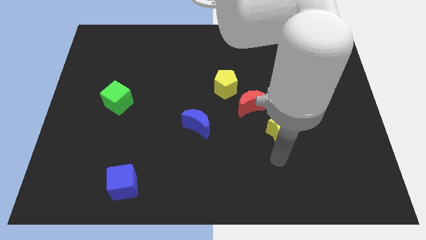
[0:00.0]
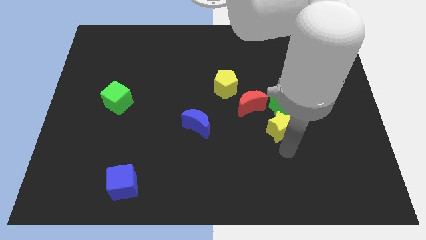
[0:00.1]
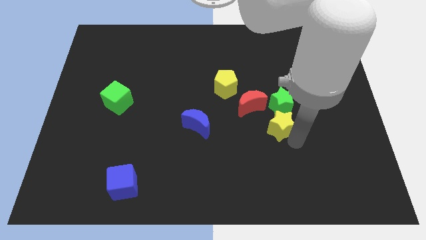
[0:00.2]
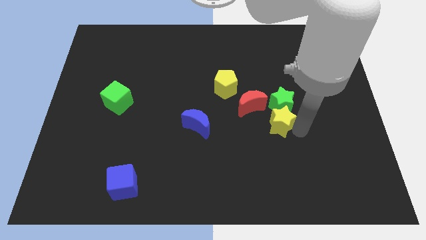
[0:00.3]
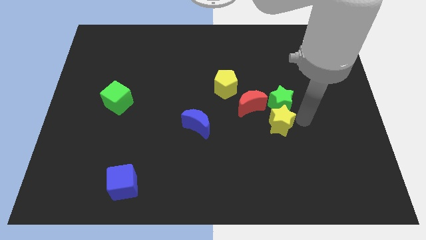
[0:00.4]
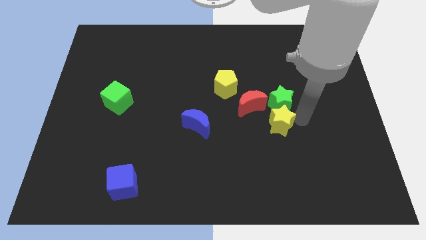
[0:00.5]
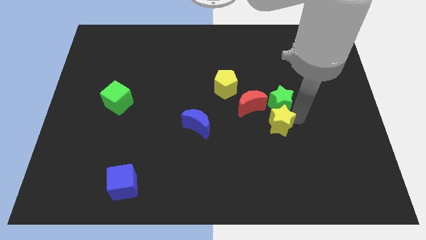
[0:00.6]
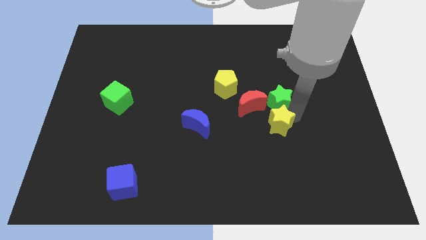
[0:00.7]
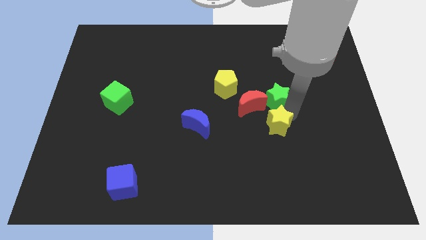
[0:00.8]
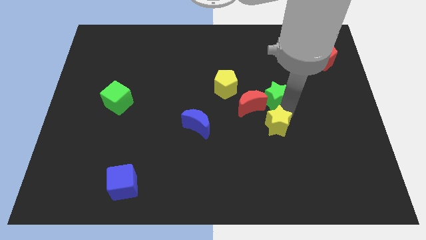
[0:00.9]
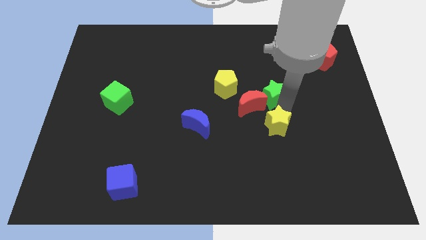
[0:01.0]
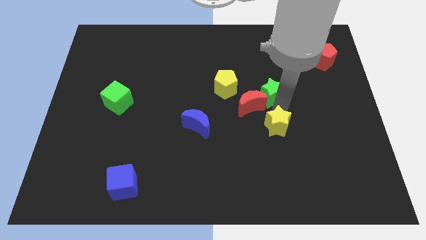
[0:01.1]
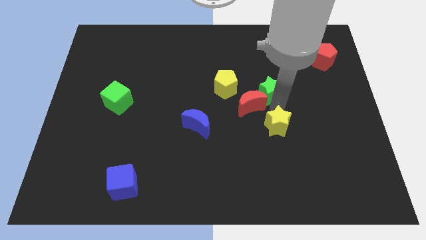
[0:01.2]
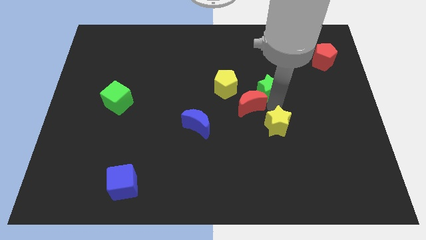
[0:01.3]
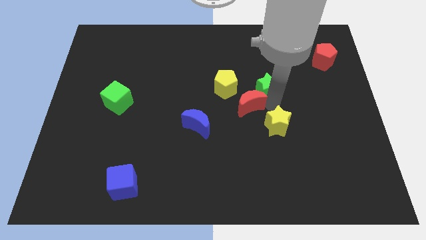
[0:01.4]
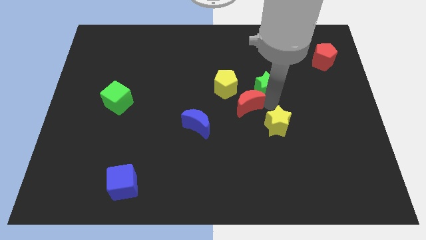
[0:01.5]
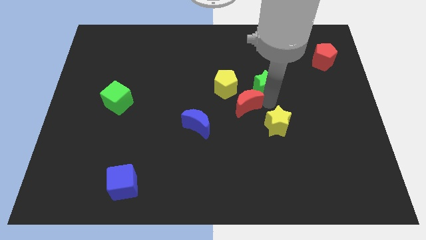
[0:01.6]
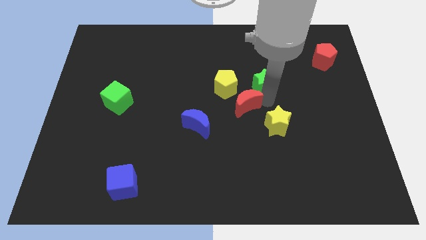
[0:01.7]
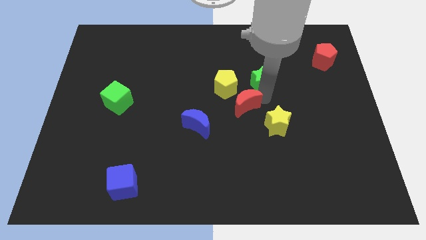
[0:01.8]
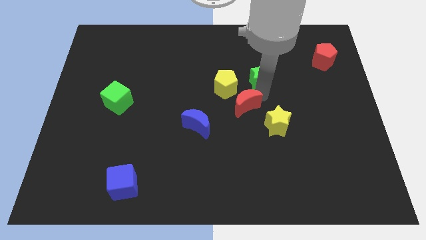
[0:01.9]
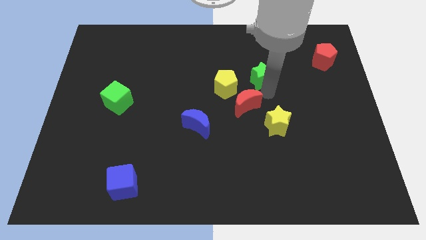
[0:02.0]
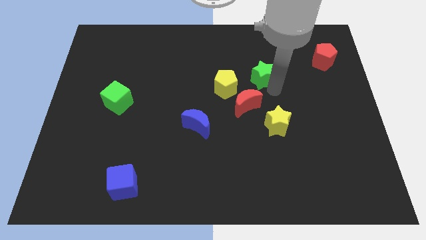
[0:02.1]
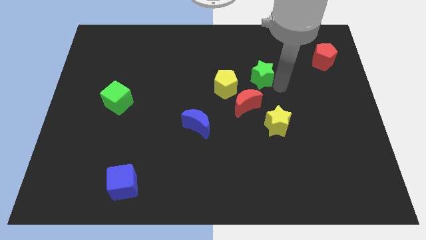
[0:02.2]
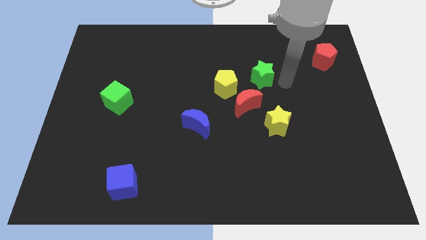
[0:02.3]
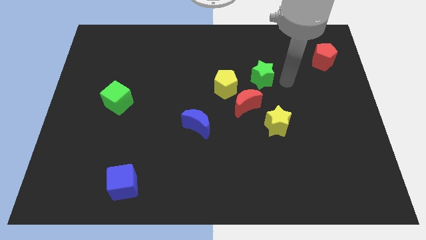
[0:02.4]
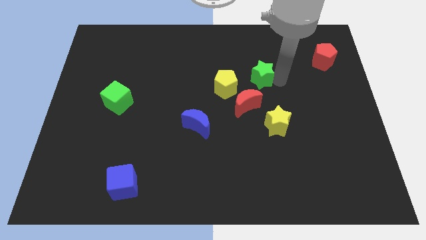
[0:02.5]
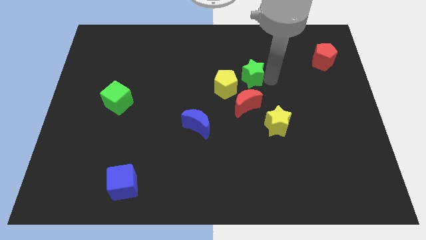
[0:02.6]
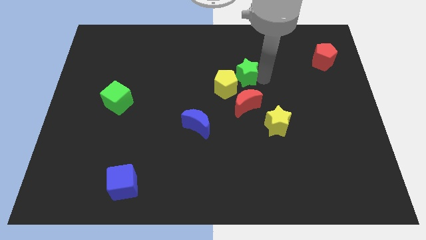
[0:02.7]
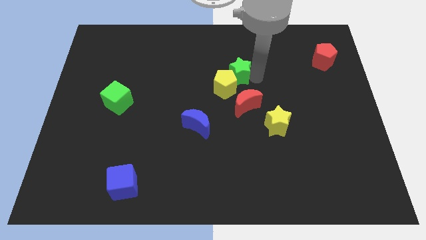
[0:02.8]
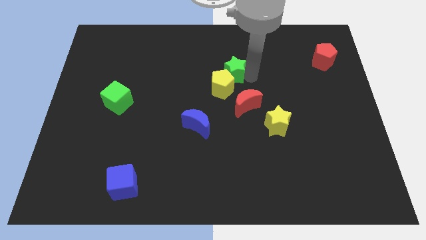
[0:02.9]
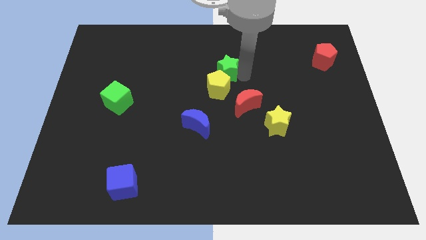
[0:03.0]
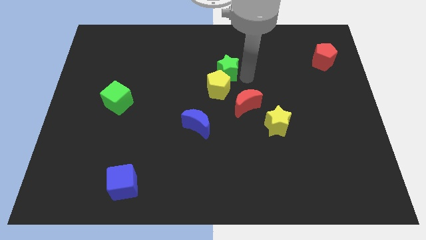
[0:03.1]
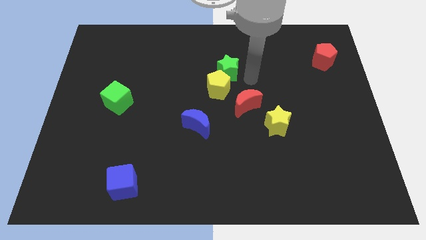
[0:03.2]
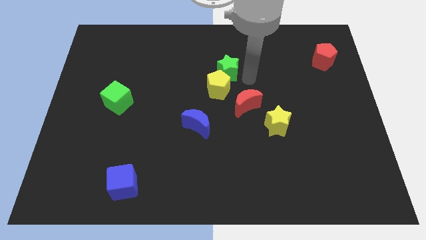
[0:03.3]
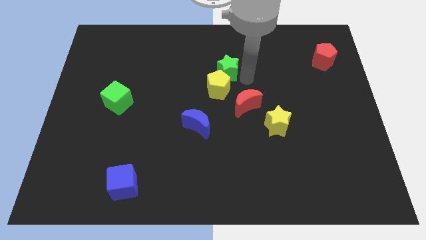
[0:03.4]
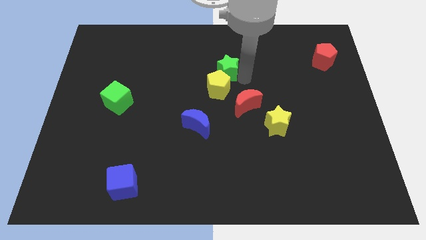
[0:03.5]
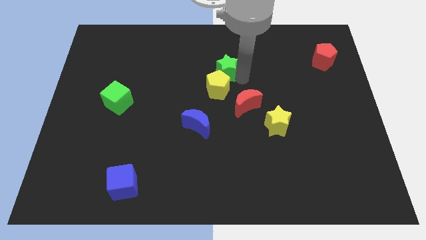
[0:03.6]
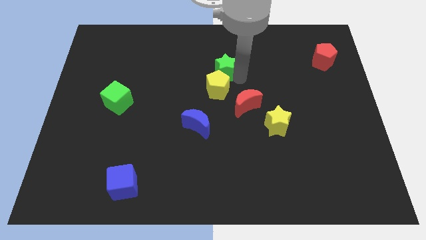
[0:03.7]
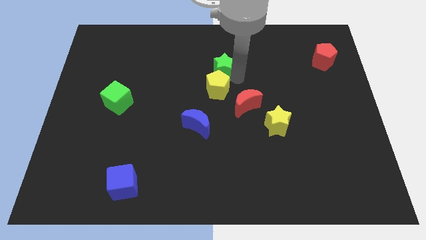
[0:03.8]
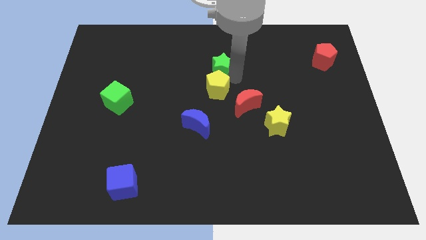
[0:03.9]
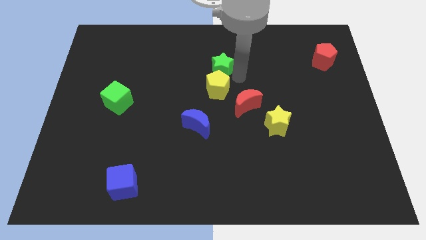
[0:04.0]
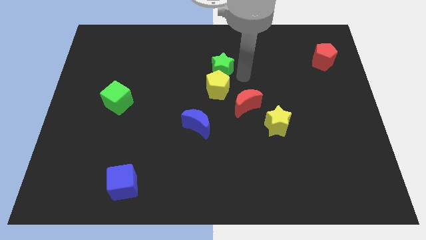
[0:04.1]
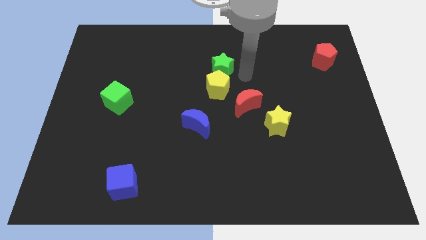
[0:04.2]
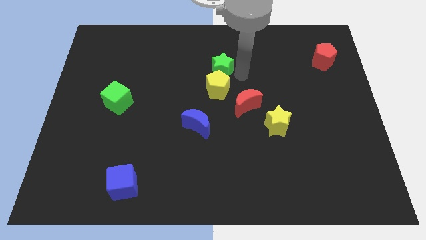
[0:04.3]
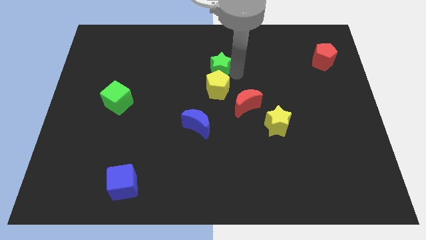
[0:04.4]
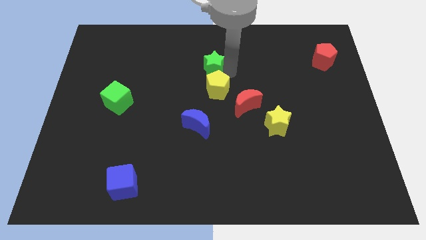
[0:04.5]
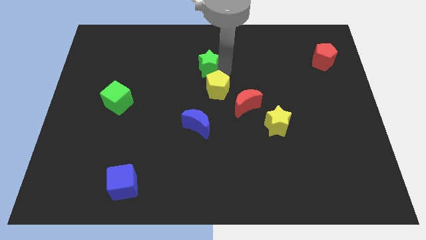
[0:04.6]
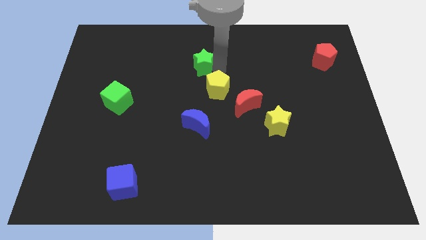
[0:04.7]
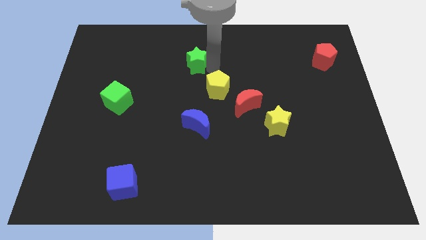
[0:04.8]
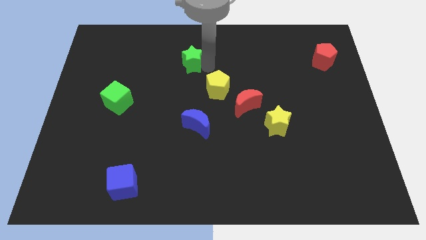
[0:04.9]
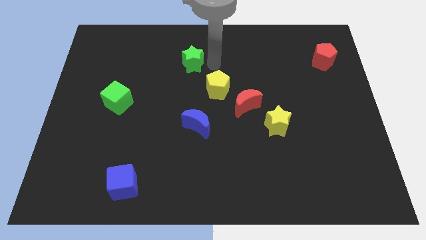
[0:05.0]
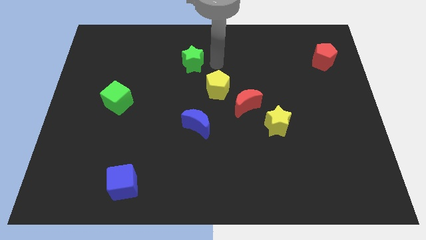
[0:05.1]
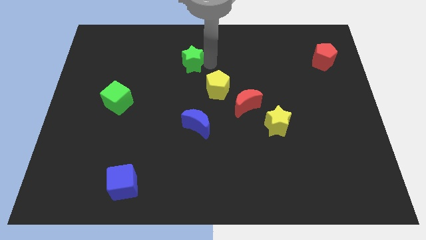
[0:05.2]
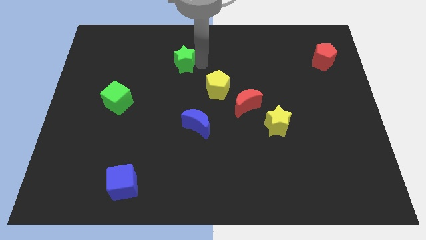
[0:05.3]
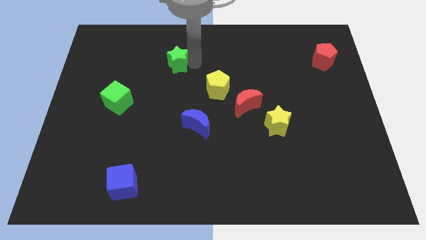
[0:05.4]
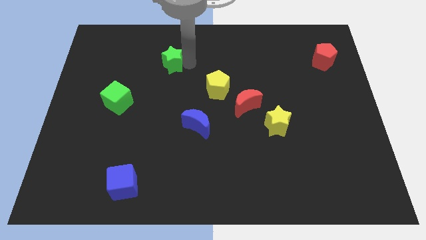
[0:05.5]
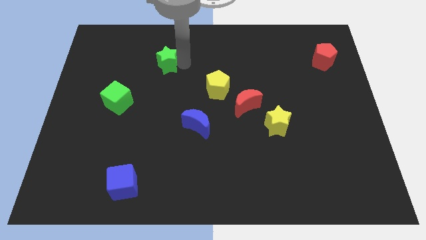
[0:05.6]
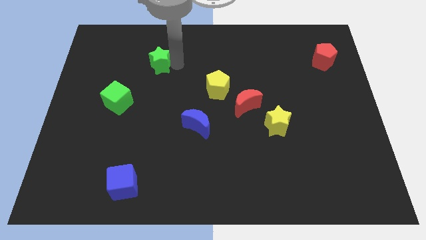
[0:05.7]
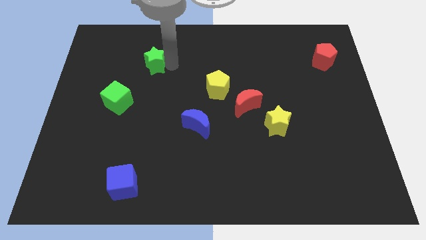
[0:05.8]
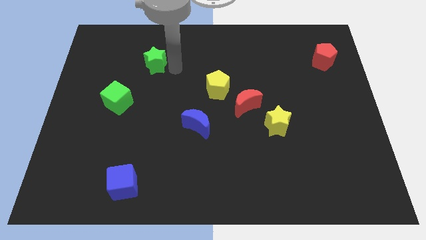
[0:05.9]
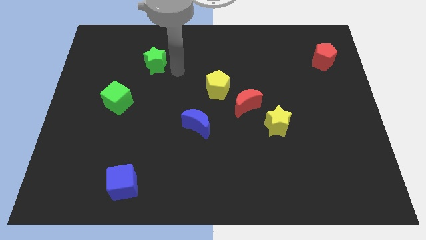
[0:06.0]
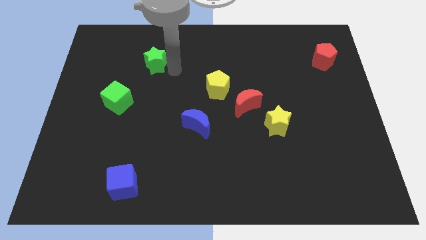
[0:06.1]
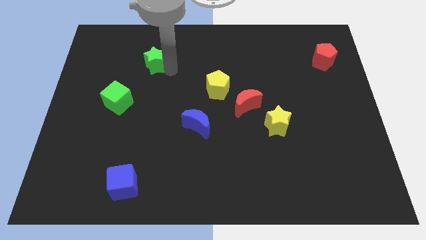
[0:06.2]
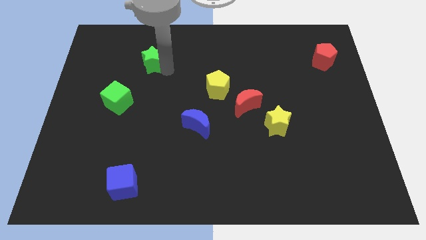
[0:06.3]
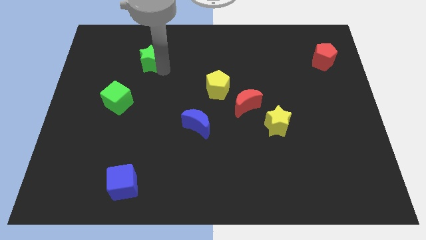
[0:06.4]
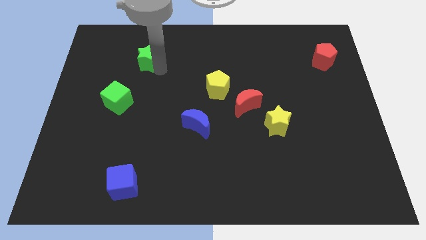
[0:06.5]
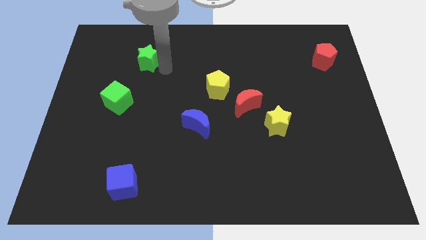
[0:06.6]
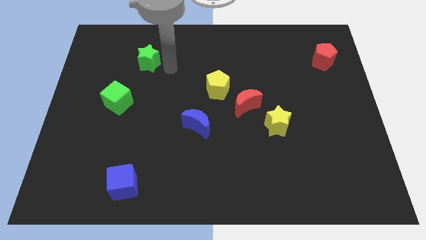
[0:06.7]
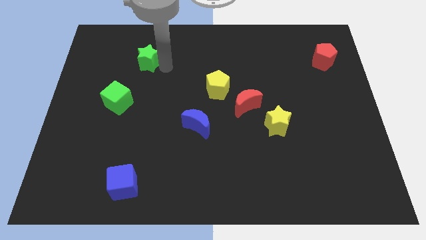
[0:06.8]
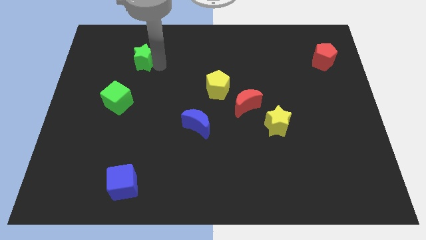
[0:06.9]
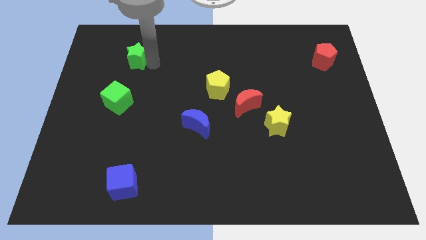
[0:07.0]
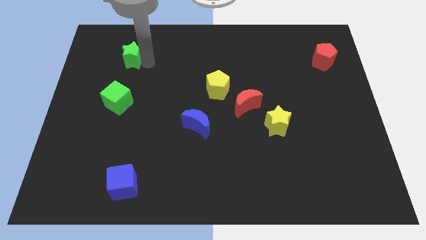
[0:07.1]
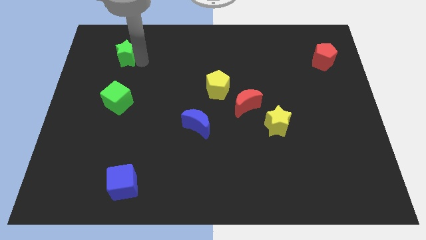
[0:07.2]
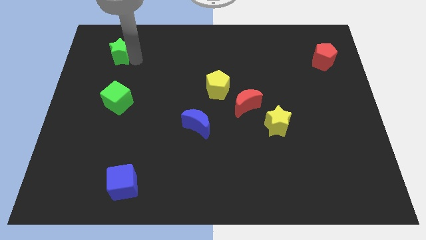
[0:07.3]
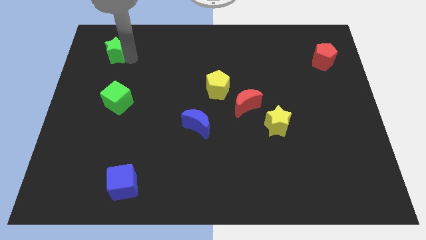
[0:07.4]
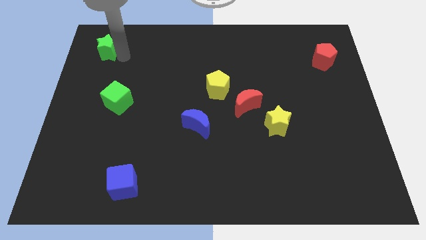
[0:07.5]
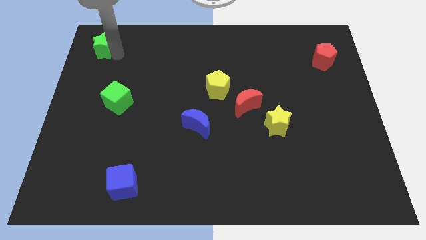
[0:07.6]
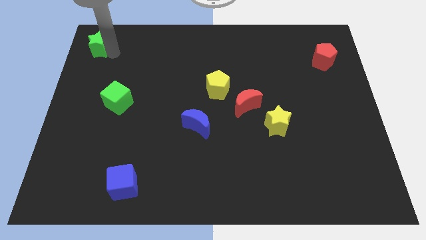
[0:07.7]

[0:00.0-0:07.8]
push the green star to the top left
